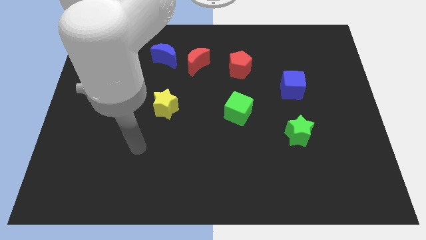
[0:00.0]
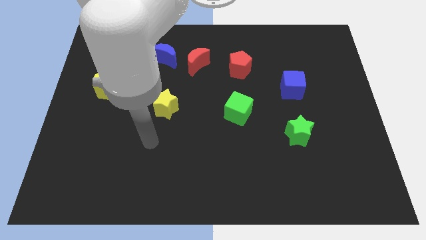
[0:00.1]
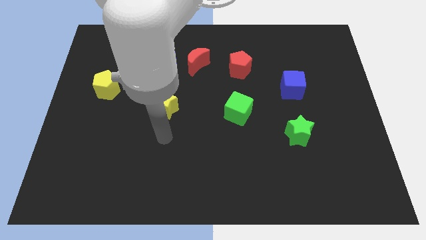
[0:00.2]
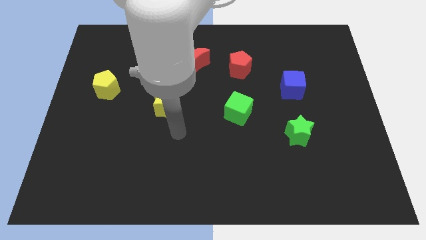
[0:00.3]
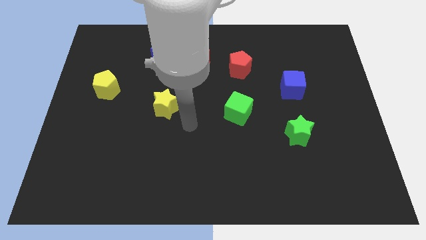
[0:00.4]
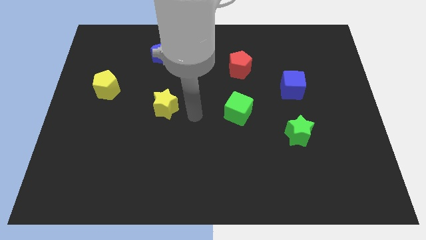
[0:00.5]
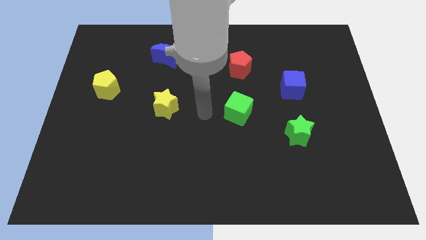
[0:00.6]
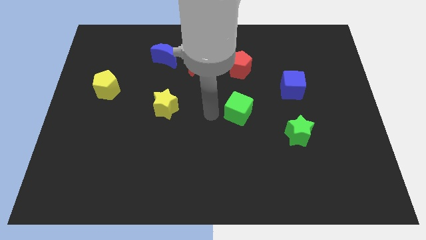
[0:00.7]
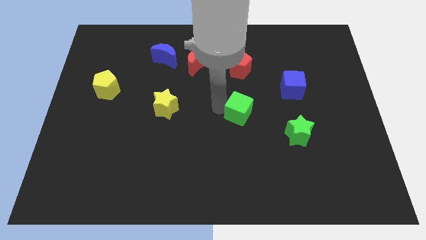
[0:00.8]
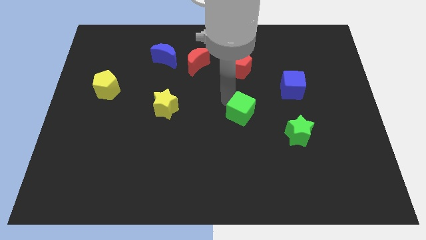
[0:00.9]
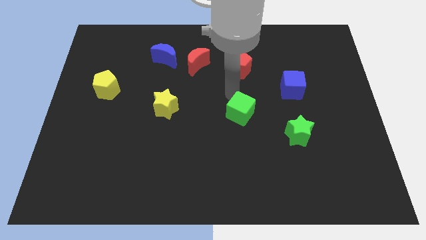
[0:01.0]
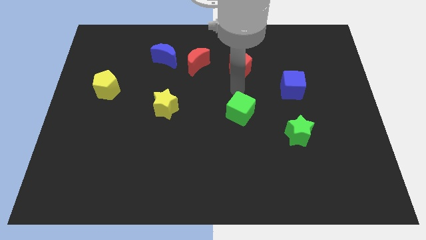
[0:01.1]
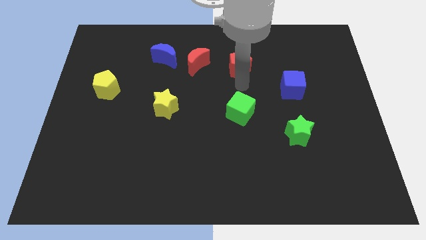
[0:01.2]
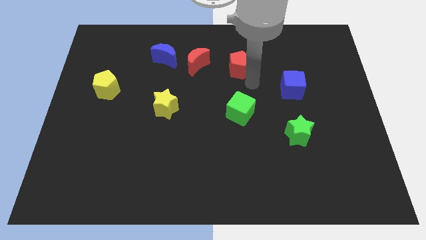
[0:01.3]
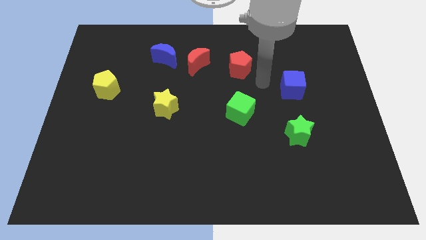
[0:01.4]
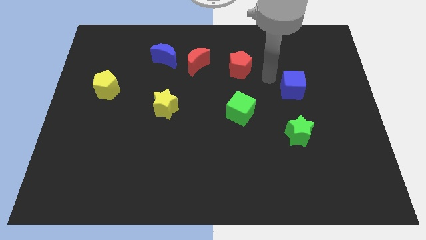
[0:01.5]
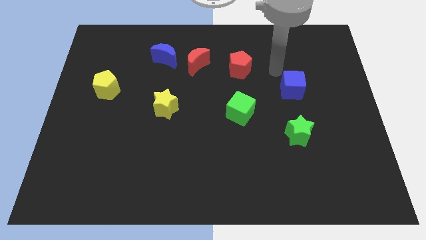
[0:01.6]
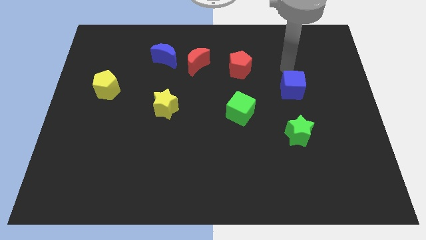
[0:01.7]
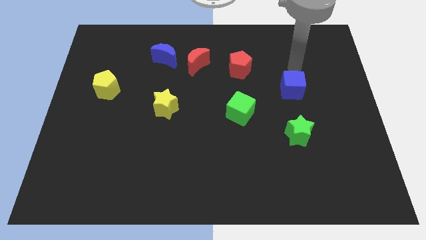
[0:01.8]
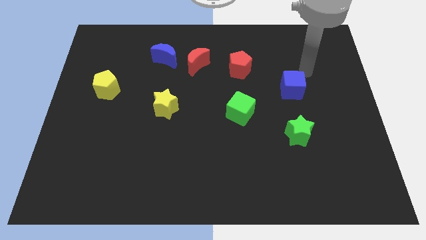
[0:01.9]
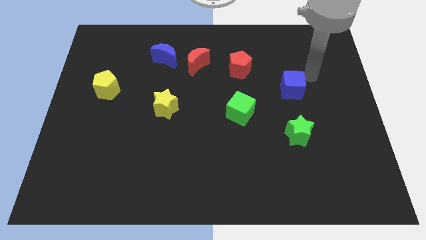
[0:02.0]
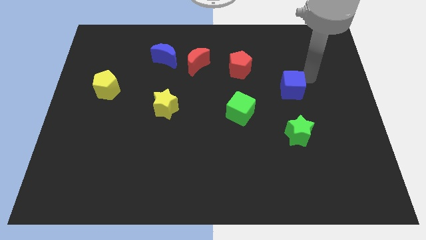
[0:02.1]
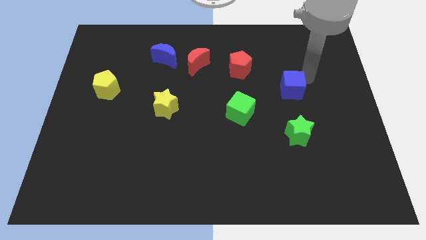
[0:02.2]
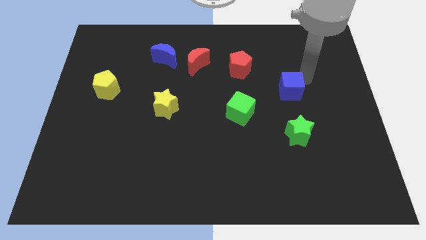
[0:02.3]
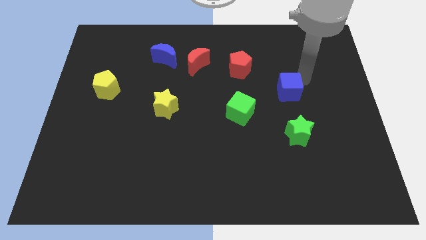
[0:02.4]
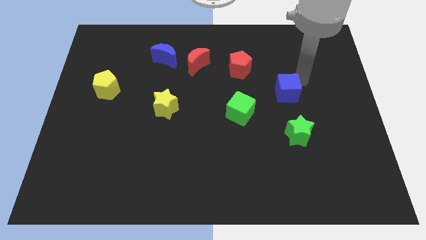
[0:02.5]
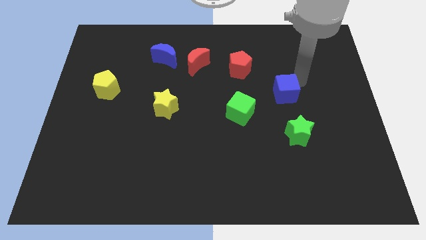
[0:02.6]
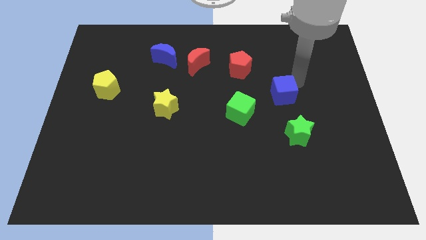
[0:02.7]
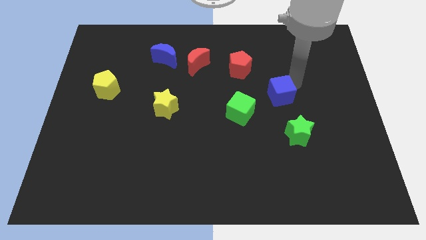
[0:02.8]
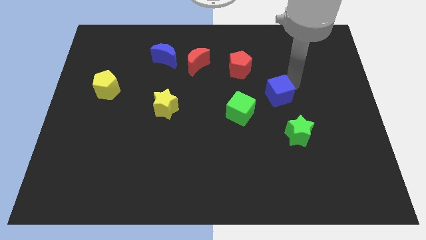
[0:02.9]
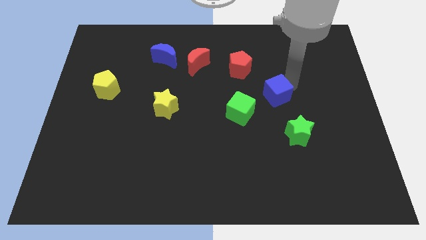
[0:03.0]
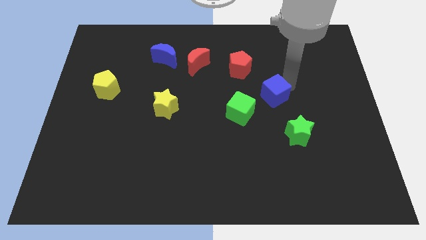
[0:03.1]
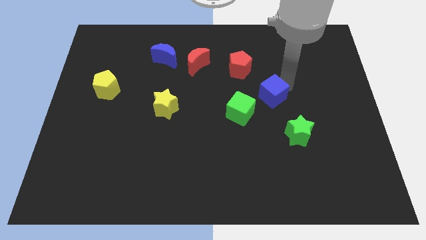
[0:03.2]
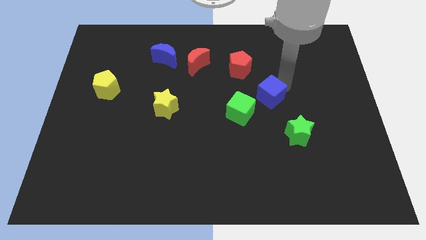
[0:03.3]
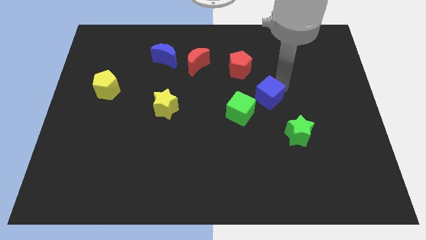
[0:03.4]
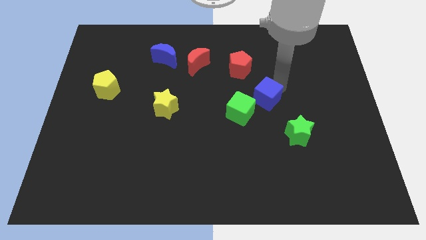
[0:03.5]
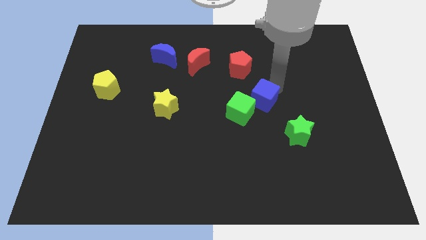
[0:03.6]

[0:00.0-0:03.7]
push the blue cube a little downwards and then left

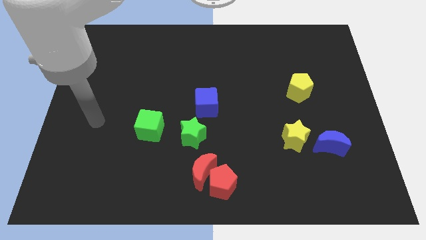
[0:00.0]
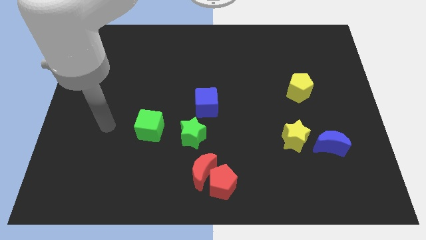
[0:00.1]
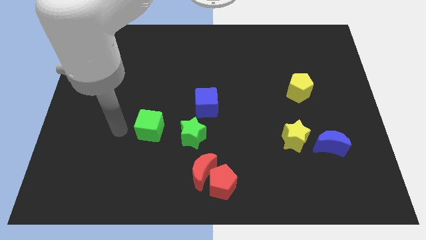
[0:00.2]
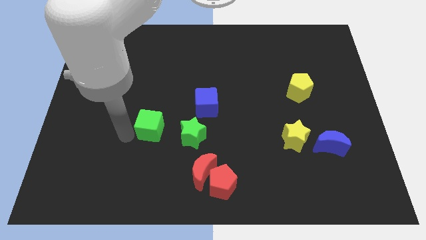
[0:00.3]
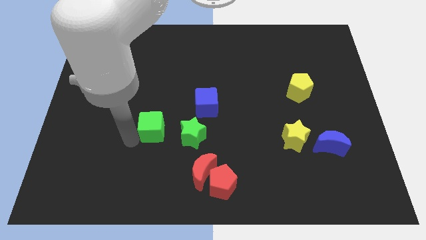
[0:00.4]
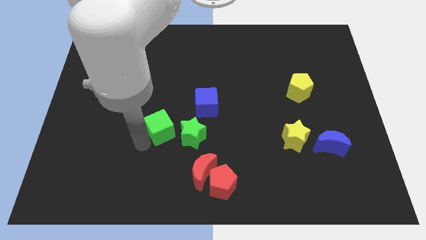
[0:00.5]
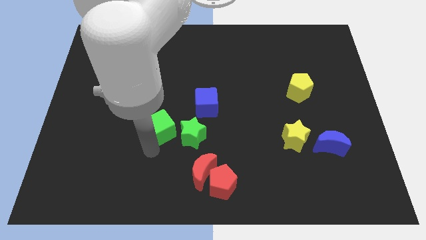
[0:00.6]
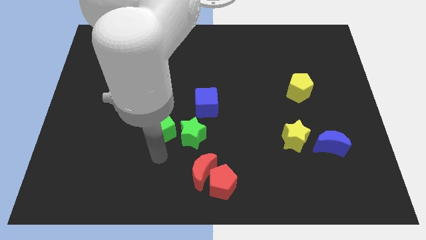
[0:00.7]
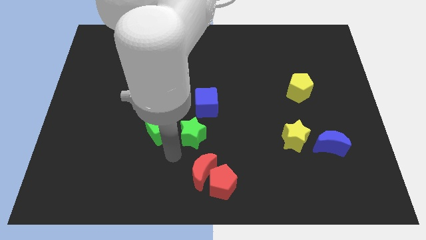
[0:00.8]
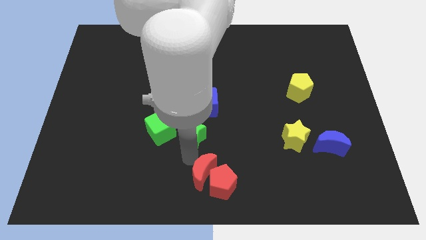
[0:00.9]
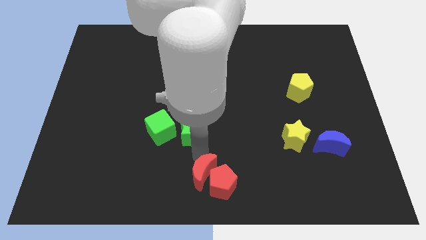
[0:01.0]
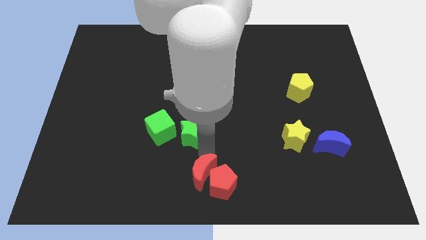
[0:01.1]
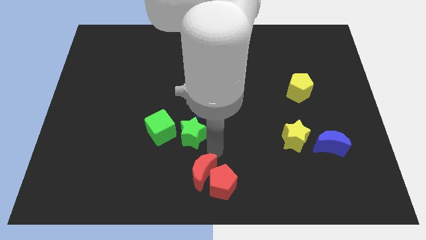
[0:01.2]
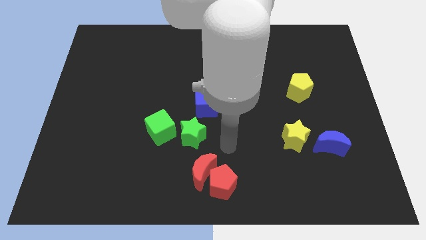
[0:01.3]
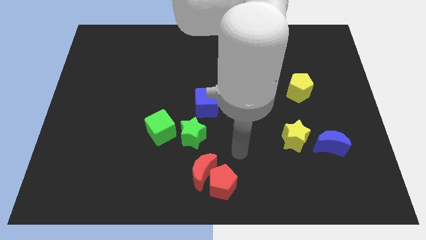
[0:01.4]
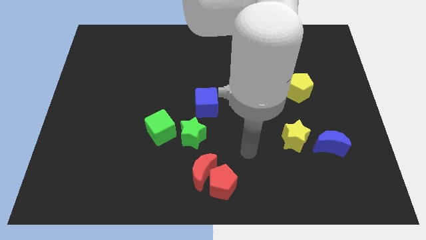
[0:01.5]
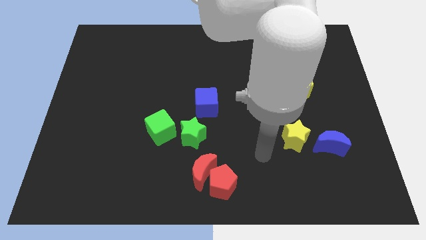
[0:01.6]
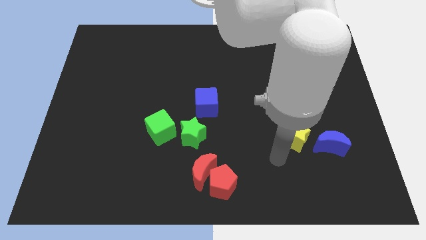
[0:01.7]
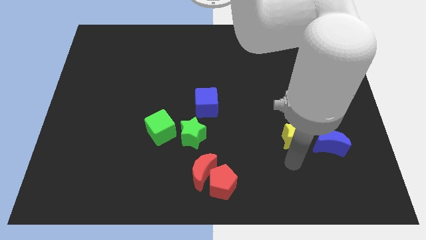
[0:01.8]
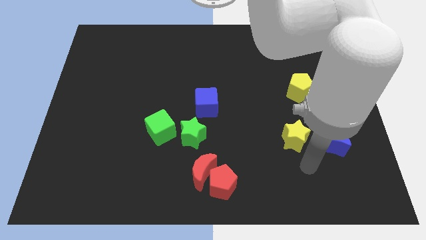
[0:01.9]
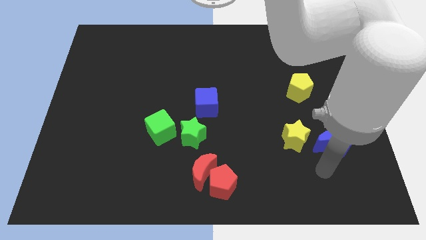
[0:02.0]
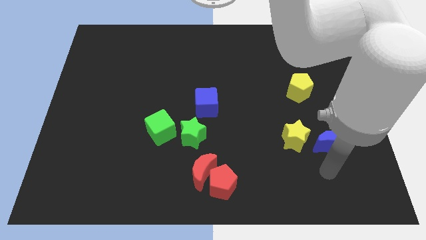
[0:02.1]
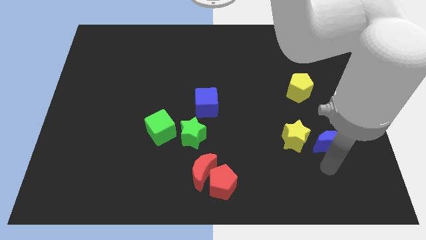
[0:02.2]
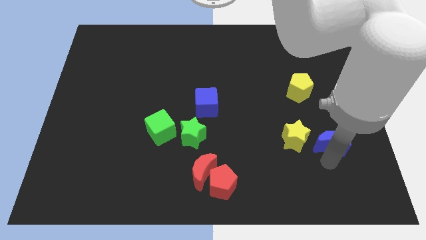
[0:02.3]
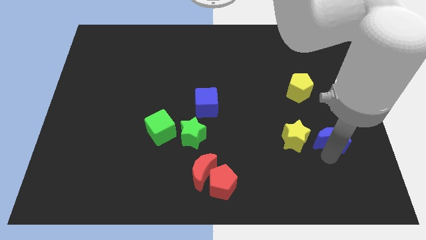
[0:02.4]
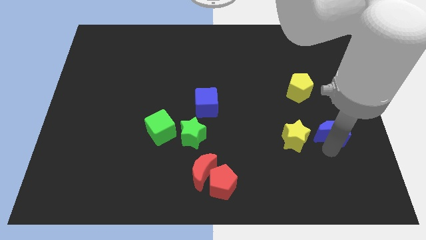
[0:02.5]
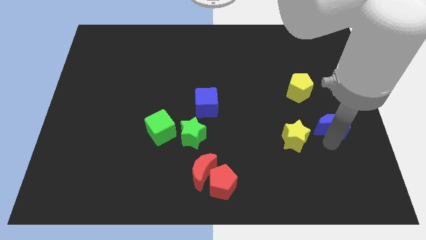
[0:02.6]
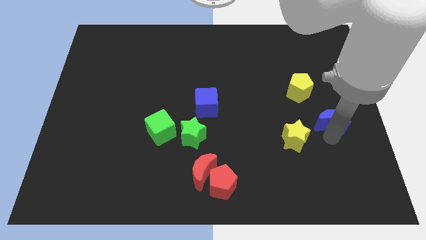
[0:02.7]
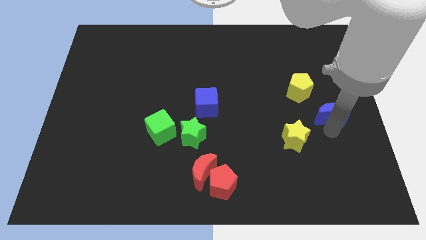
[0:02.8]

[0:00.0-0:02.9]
slightly push the blue moon up

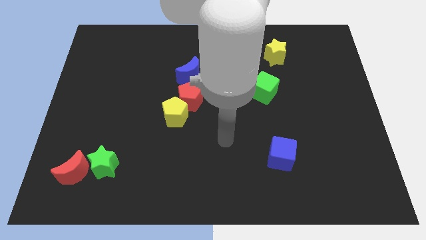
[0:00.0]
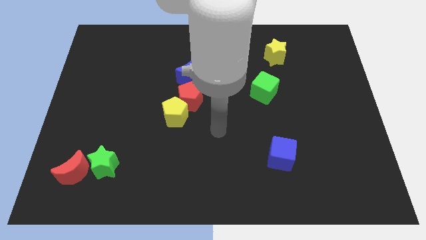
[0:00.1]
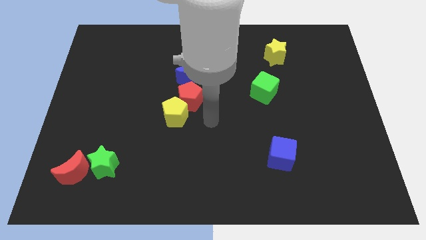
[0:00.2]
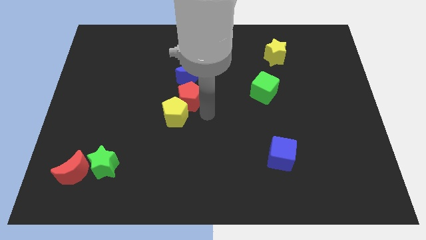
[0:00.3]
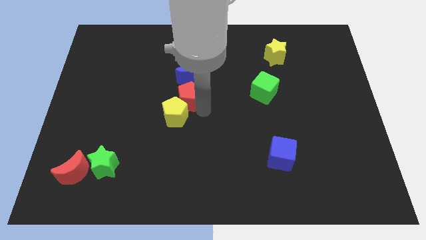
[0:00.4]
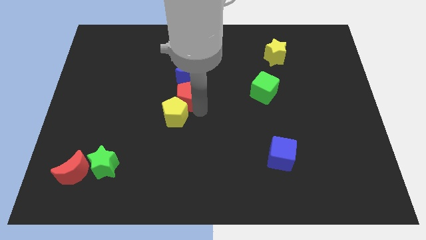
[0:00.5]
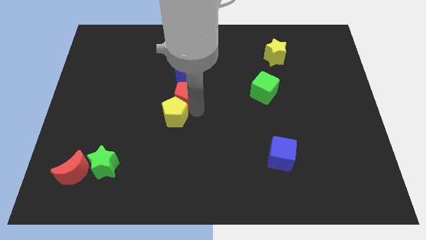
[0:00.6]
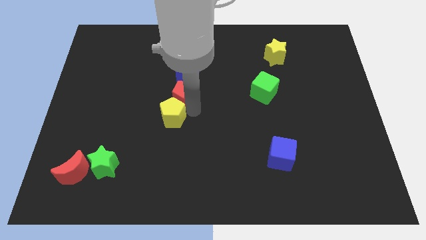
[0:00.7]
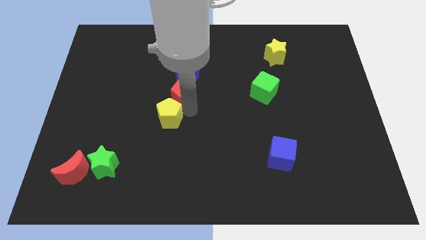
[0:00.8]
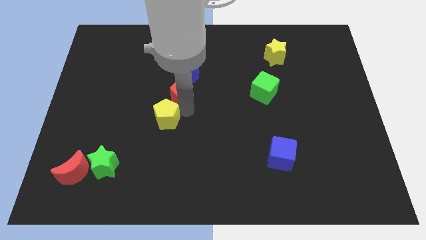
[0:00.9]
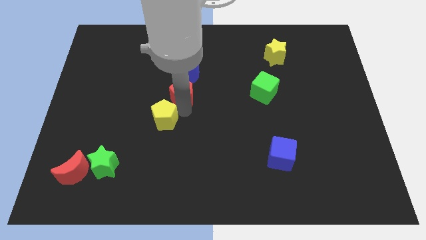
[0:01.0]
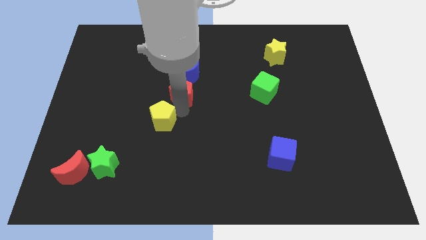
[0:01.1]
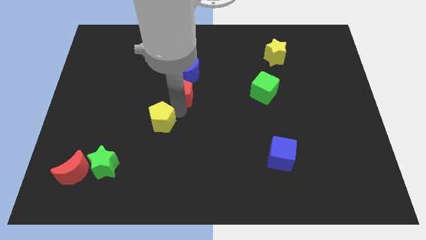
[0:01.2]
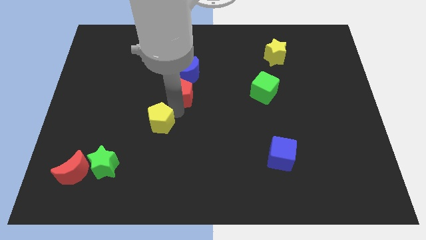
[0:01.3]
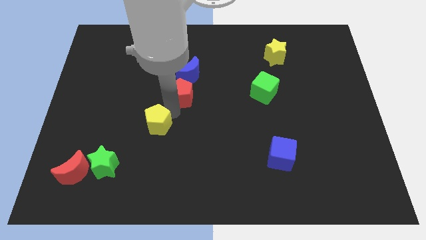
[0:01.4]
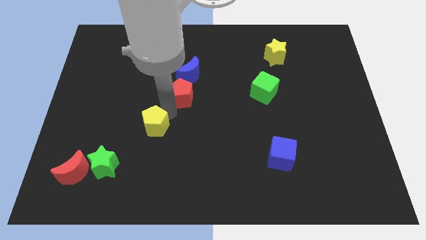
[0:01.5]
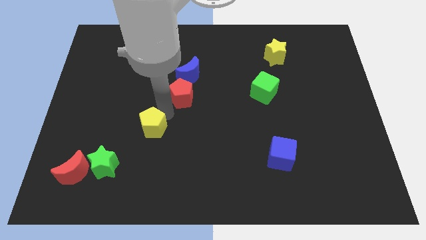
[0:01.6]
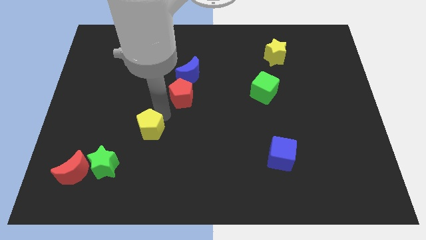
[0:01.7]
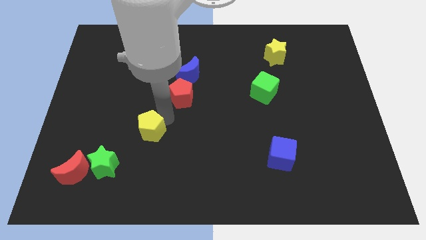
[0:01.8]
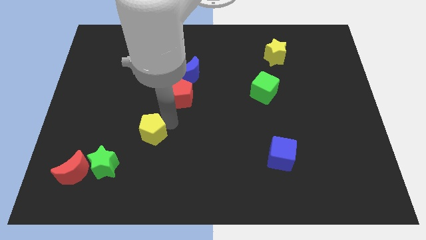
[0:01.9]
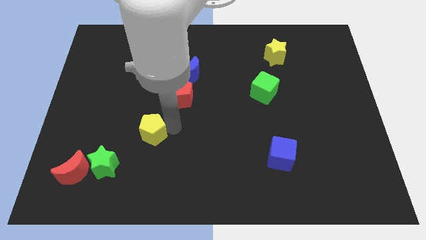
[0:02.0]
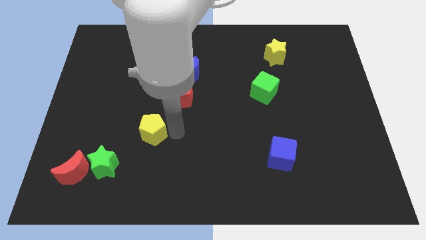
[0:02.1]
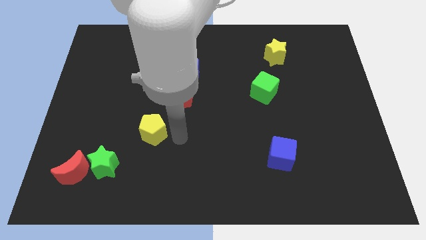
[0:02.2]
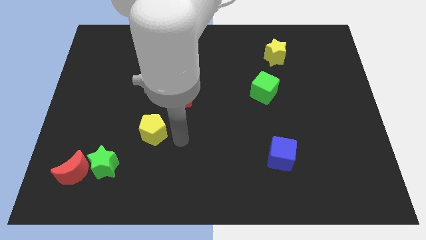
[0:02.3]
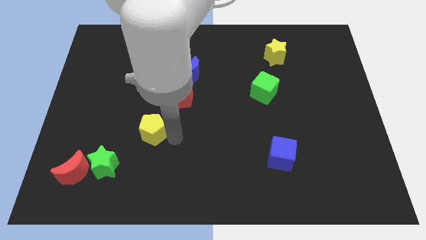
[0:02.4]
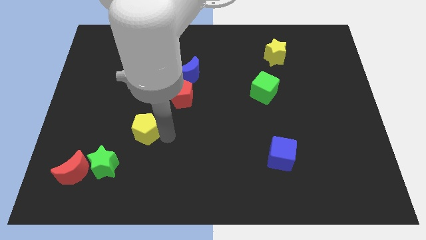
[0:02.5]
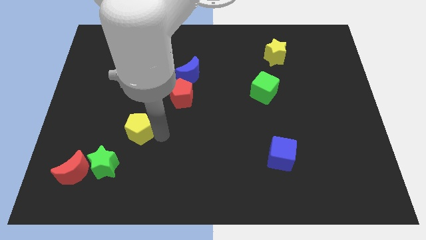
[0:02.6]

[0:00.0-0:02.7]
push the yellow pentagon somewhat to the left
